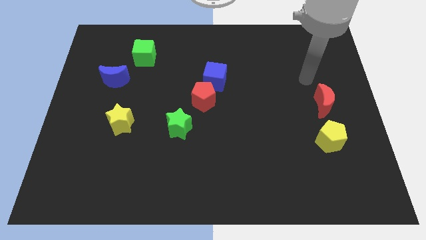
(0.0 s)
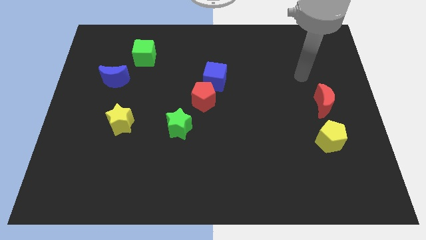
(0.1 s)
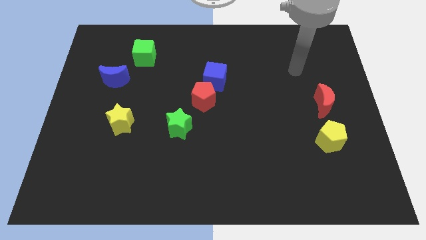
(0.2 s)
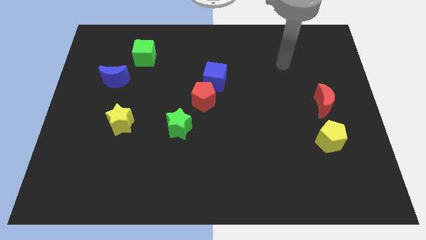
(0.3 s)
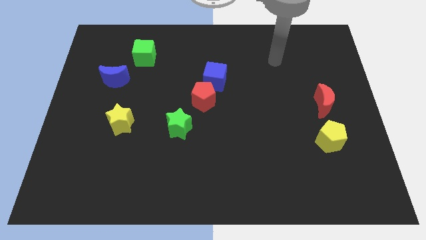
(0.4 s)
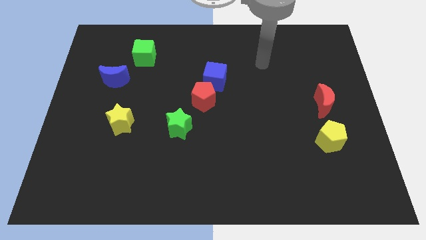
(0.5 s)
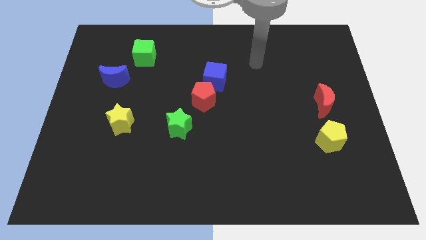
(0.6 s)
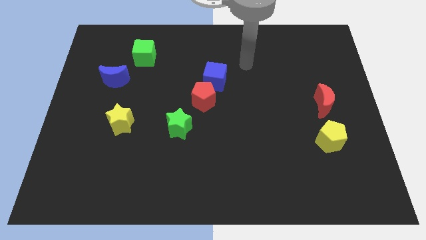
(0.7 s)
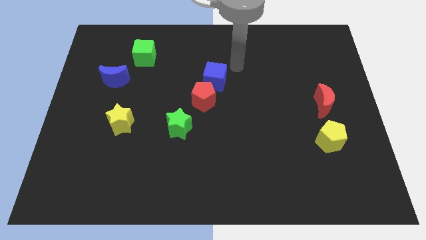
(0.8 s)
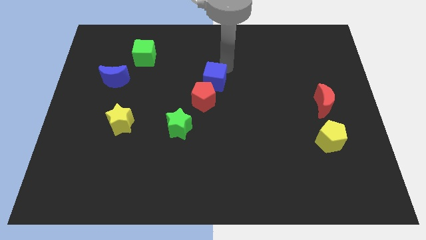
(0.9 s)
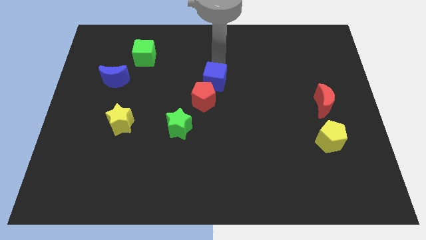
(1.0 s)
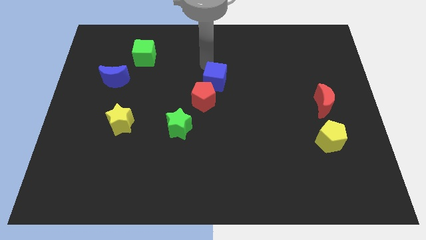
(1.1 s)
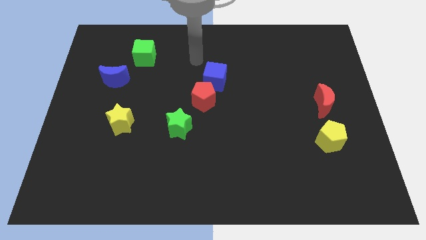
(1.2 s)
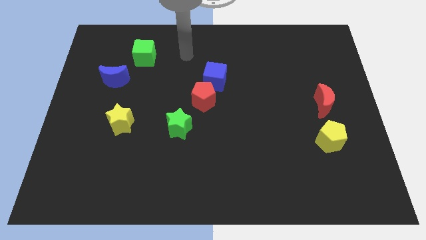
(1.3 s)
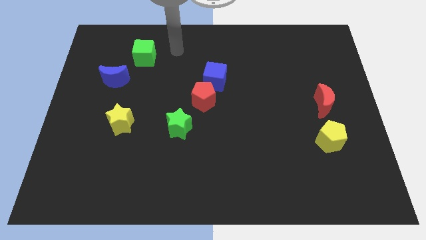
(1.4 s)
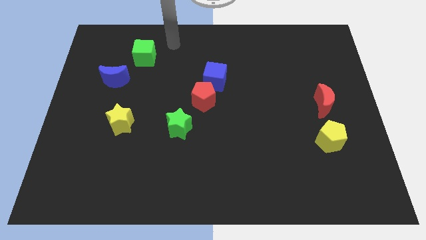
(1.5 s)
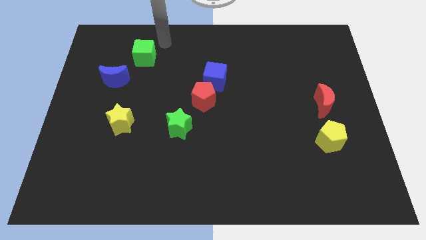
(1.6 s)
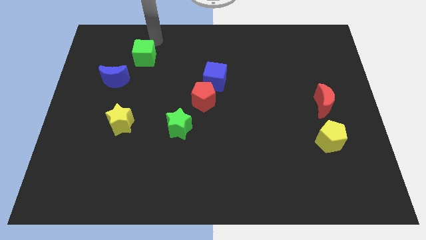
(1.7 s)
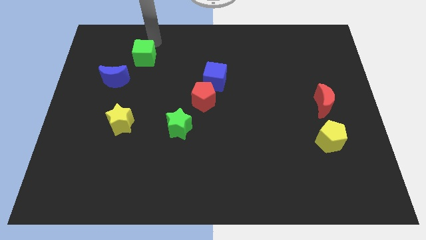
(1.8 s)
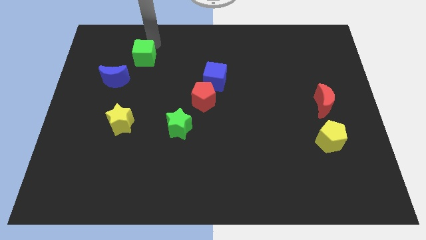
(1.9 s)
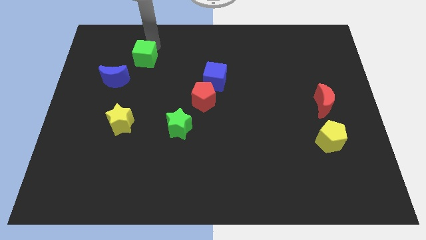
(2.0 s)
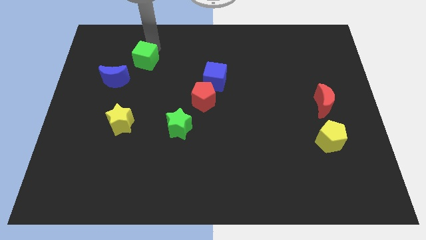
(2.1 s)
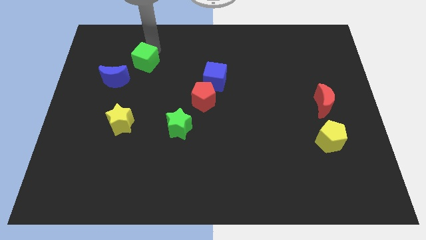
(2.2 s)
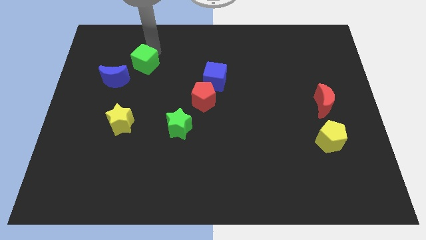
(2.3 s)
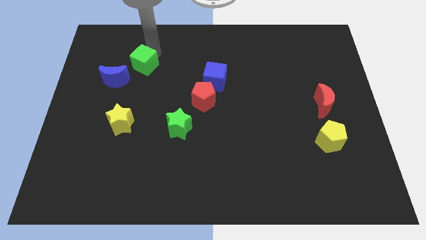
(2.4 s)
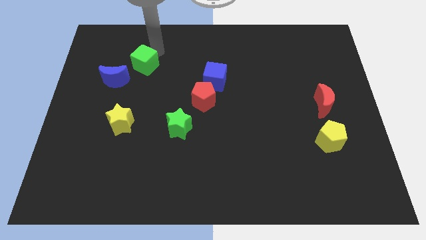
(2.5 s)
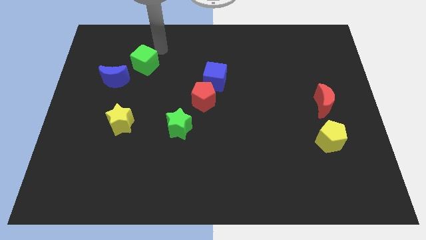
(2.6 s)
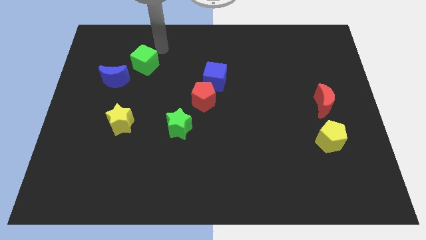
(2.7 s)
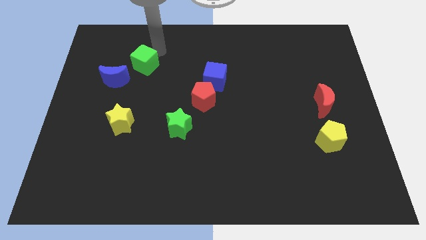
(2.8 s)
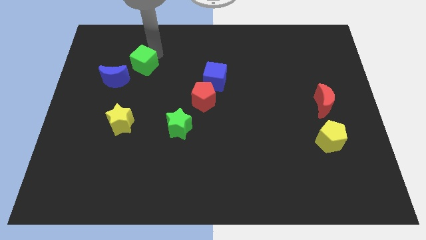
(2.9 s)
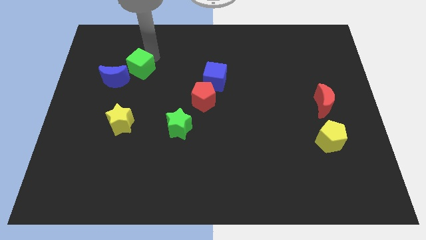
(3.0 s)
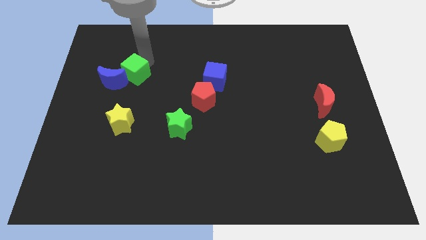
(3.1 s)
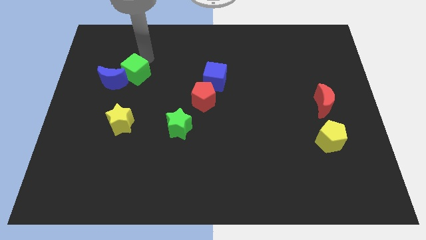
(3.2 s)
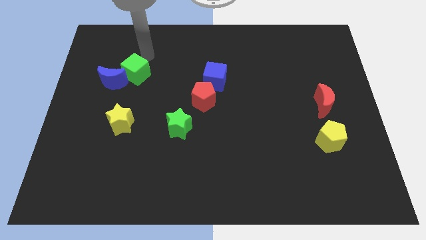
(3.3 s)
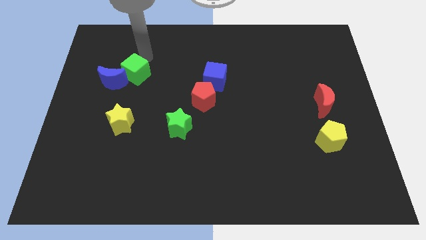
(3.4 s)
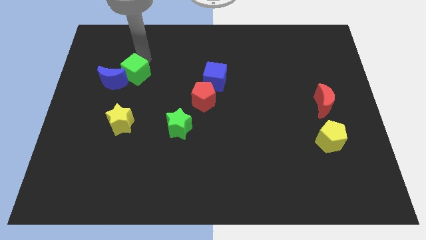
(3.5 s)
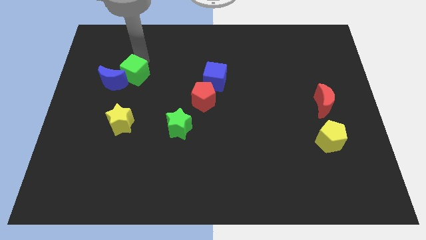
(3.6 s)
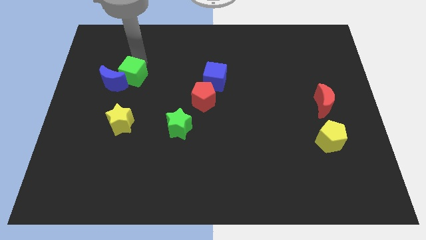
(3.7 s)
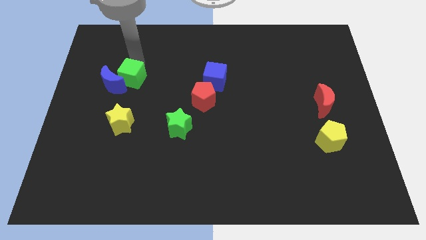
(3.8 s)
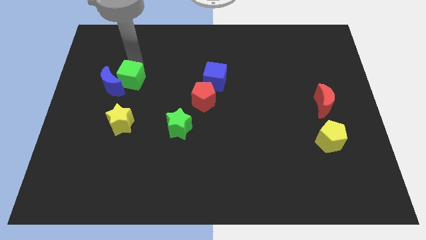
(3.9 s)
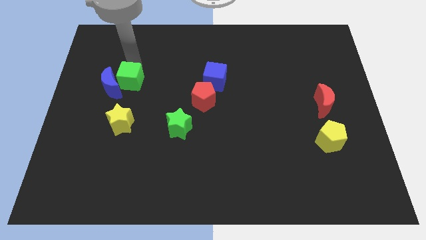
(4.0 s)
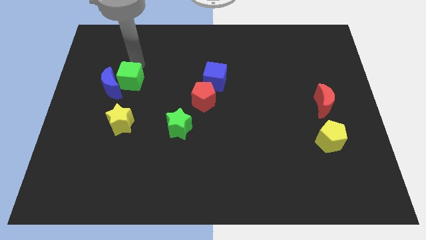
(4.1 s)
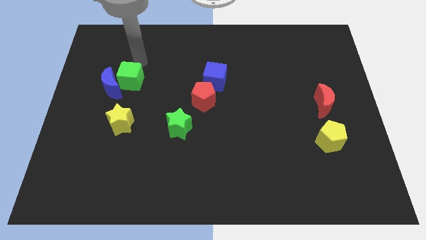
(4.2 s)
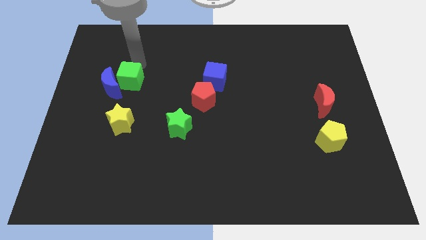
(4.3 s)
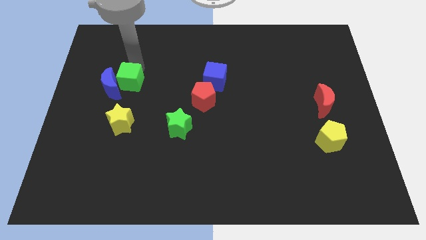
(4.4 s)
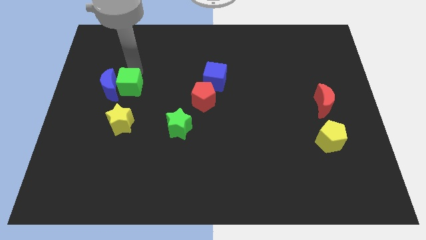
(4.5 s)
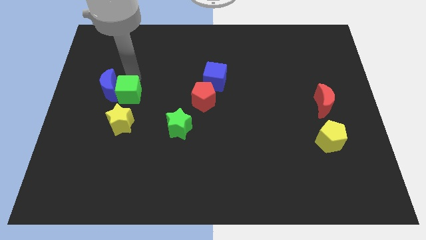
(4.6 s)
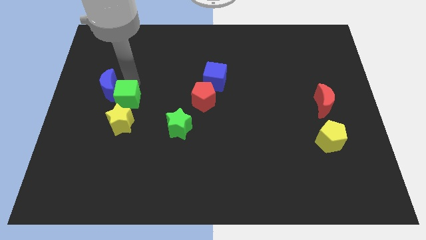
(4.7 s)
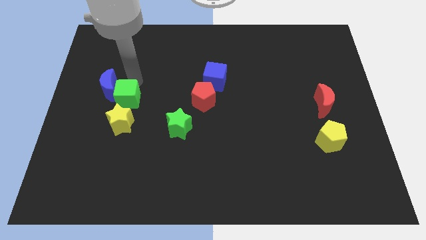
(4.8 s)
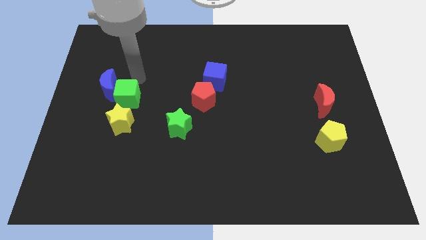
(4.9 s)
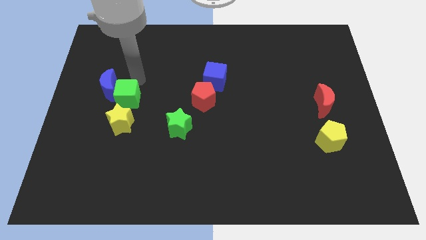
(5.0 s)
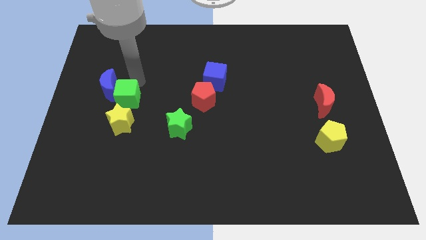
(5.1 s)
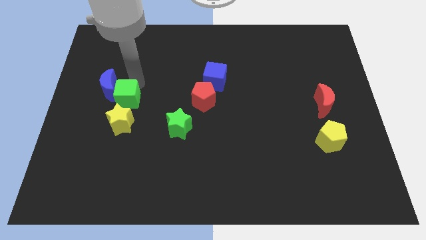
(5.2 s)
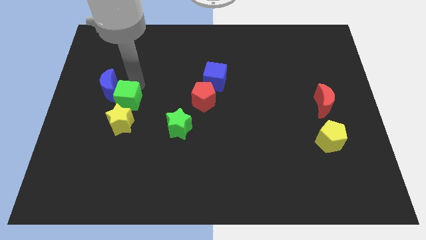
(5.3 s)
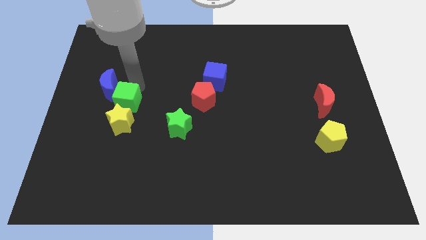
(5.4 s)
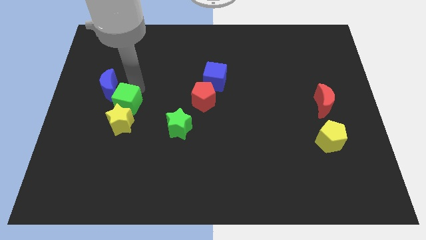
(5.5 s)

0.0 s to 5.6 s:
move the green cube close to the yellow star

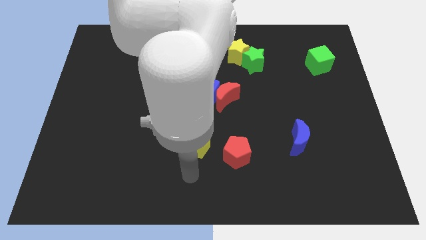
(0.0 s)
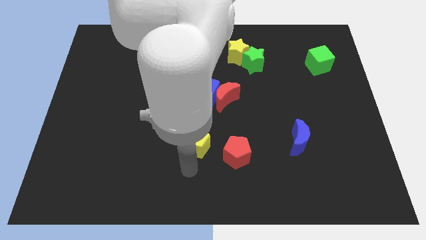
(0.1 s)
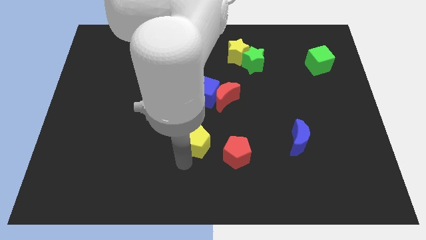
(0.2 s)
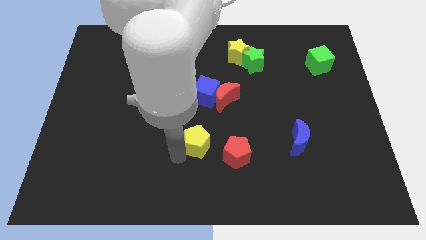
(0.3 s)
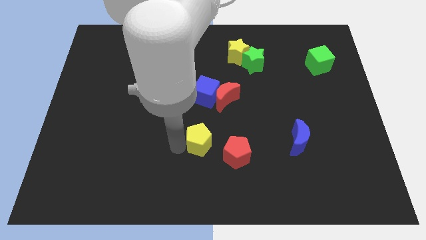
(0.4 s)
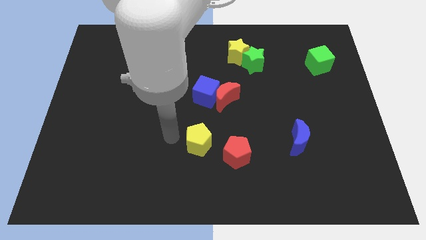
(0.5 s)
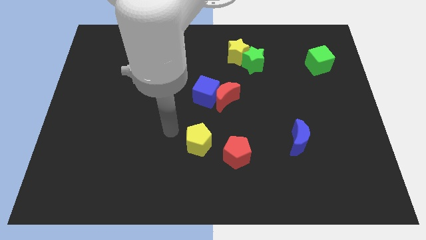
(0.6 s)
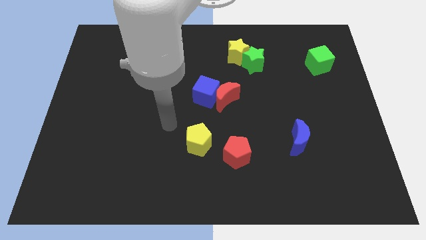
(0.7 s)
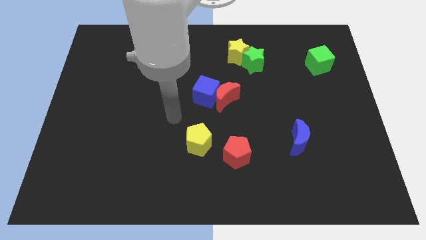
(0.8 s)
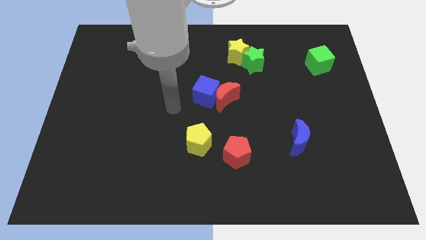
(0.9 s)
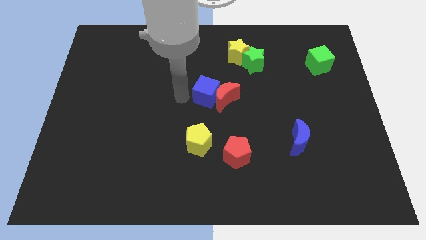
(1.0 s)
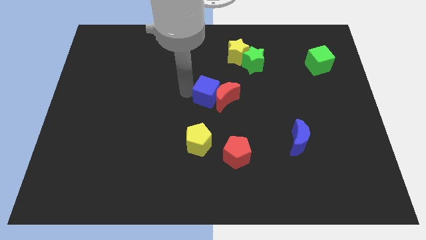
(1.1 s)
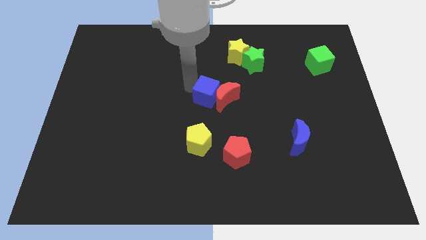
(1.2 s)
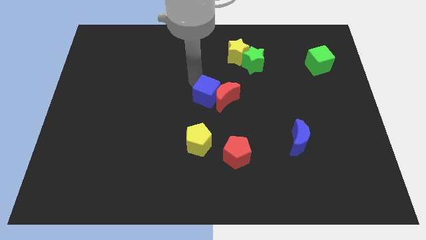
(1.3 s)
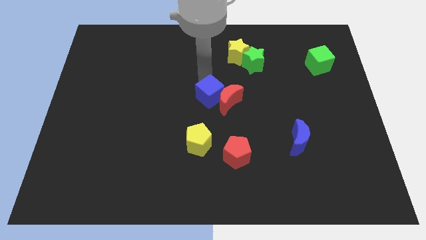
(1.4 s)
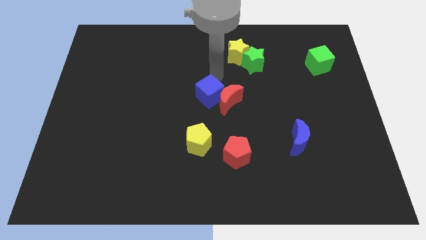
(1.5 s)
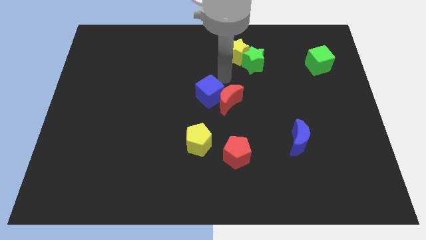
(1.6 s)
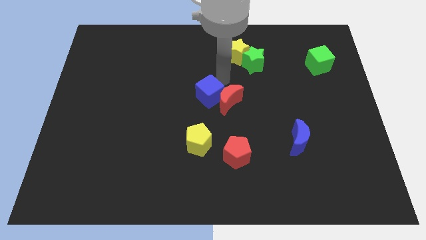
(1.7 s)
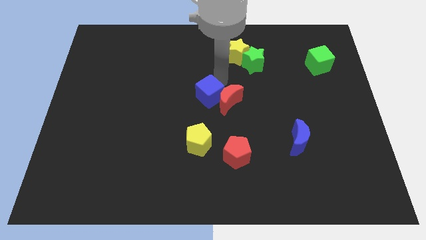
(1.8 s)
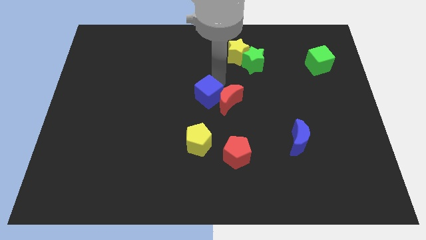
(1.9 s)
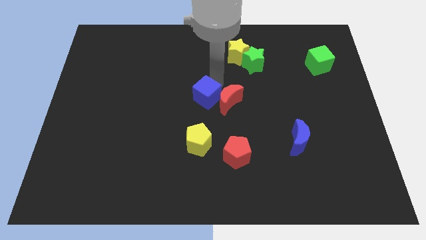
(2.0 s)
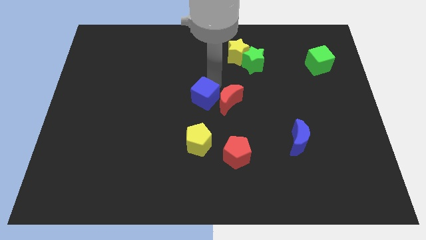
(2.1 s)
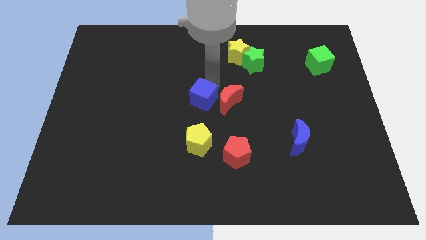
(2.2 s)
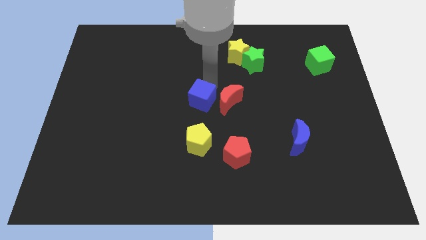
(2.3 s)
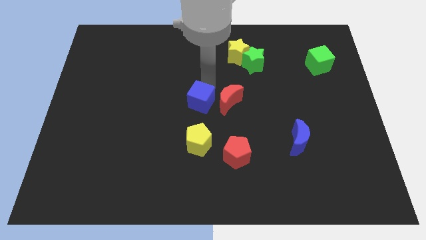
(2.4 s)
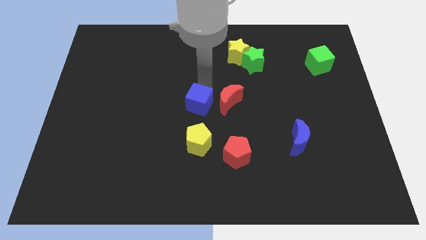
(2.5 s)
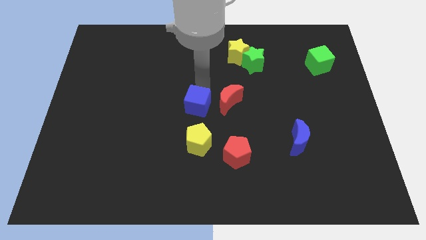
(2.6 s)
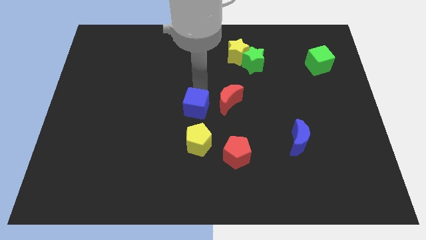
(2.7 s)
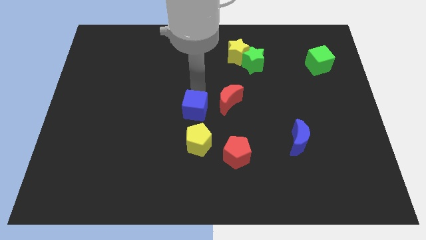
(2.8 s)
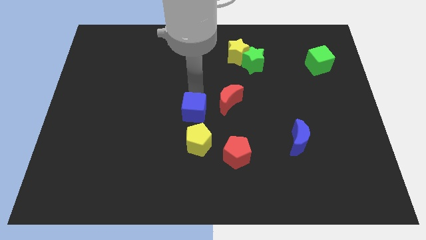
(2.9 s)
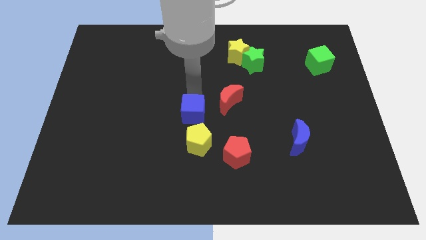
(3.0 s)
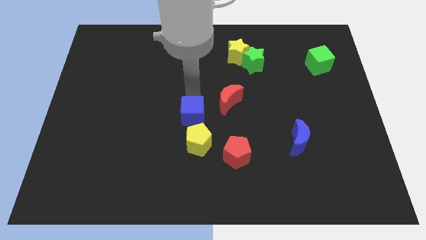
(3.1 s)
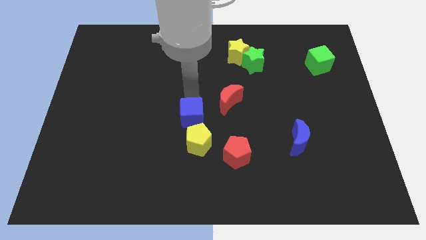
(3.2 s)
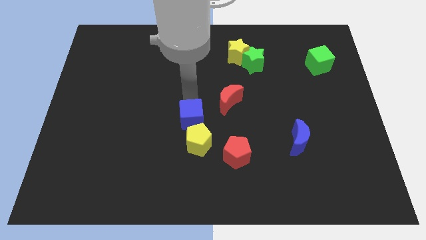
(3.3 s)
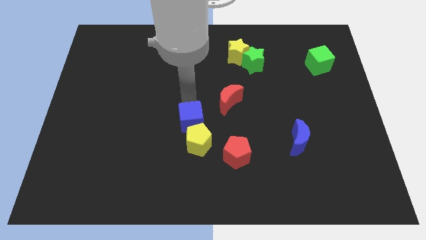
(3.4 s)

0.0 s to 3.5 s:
put the blue cube towards the yellow pentagon
